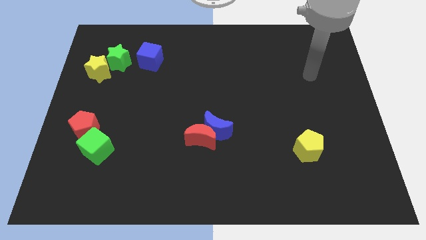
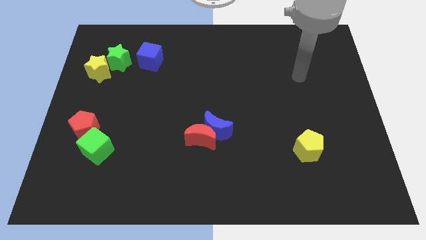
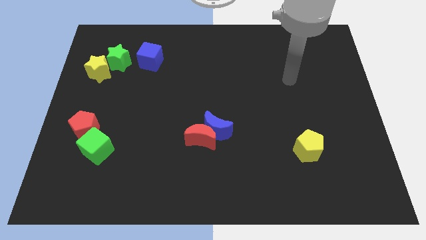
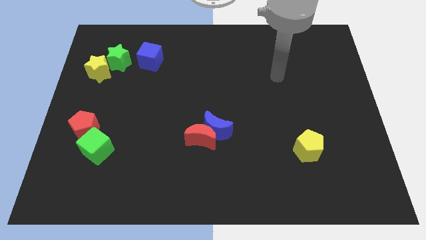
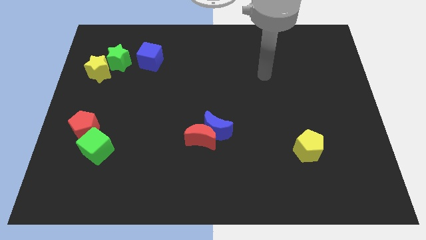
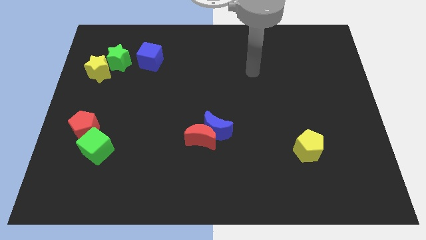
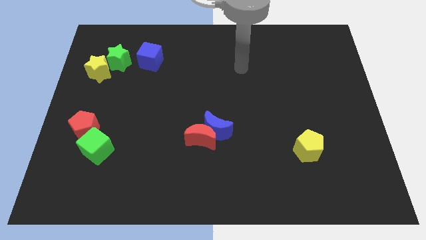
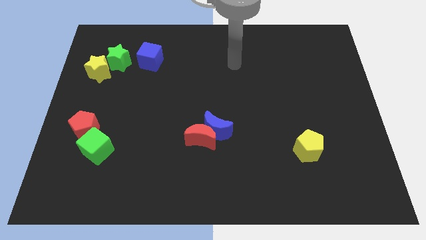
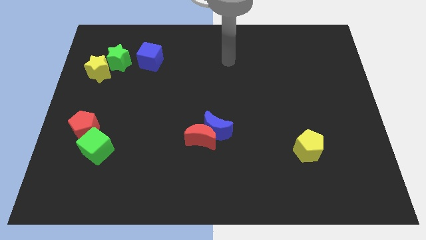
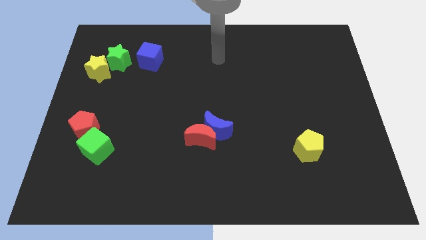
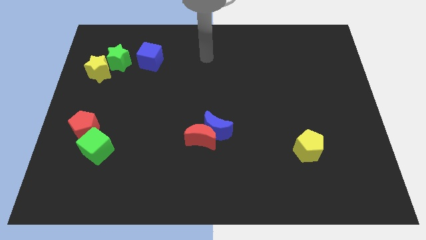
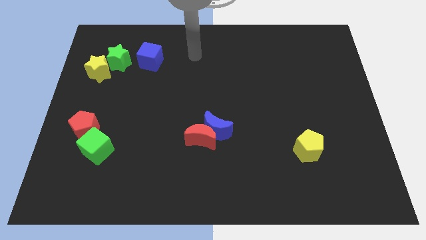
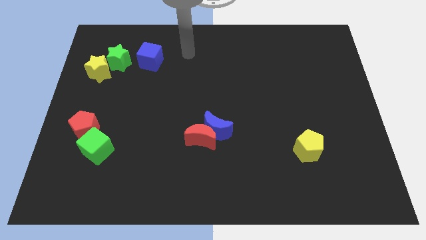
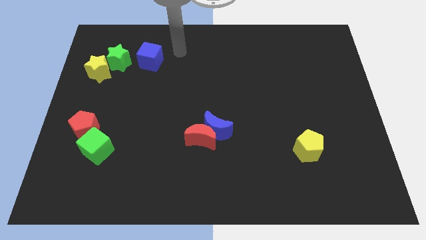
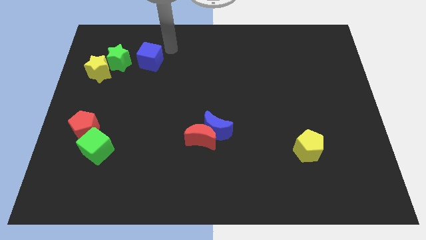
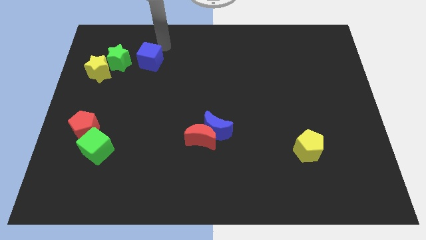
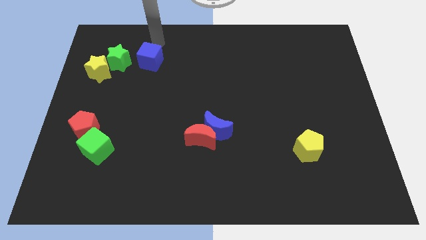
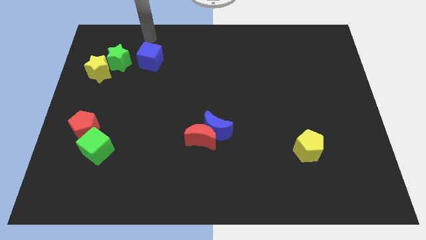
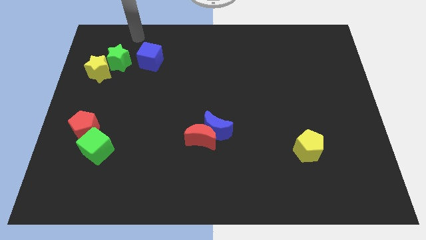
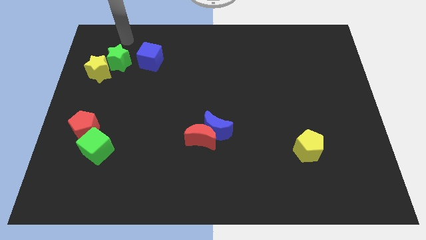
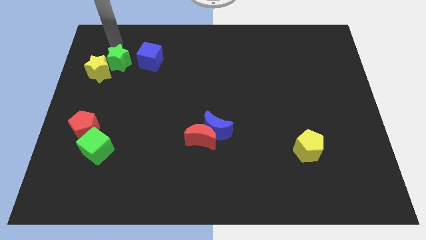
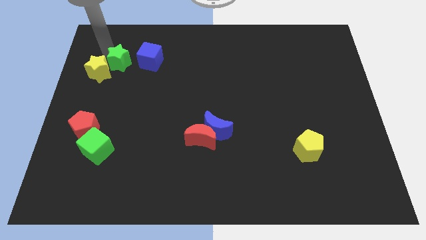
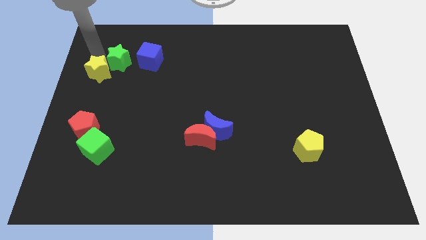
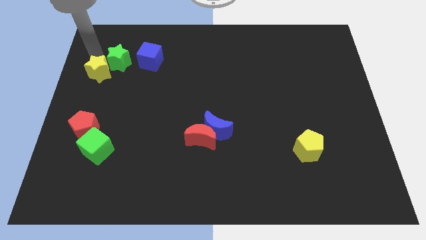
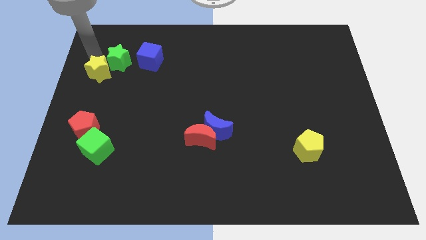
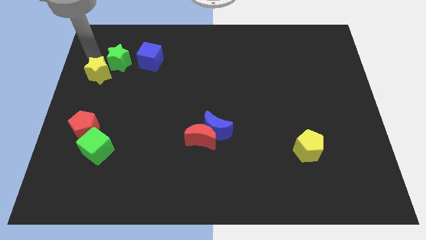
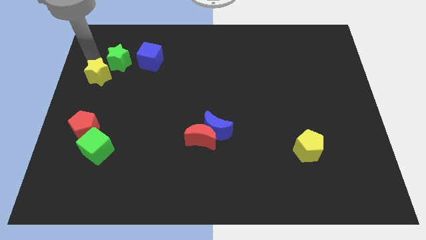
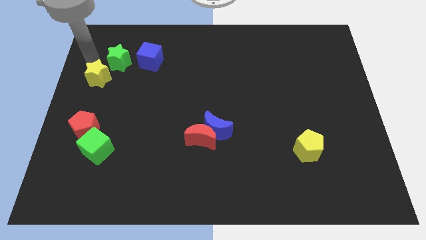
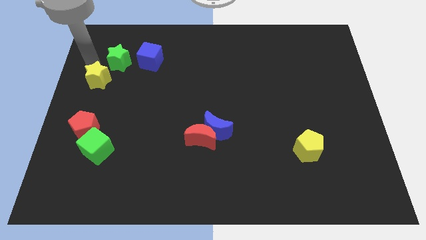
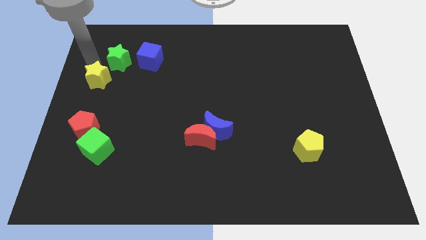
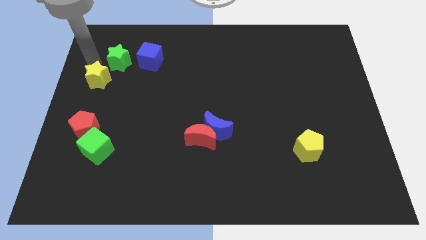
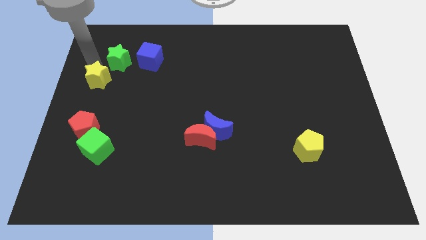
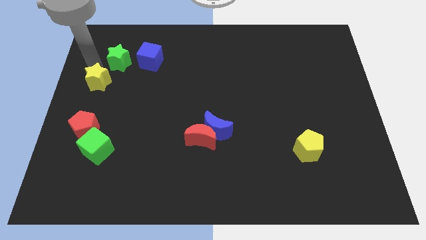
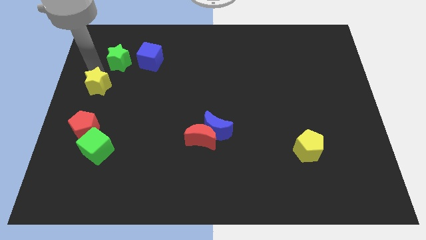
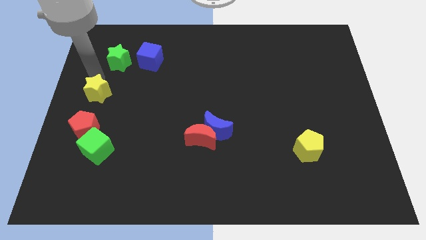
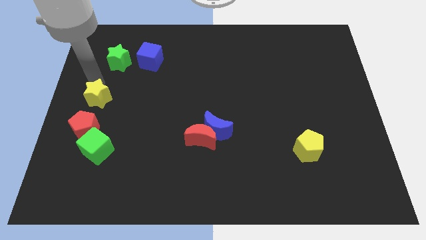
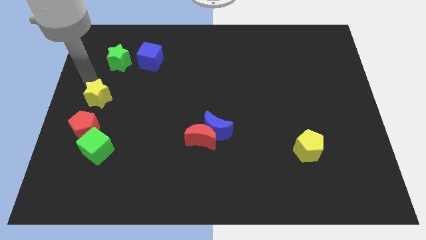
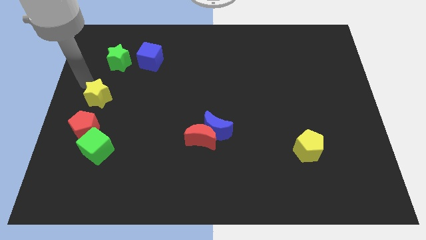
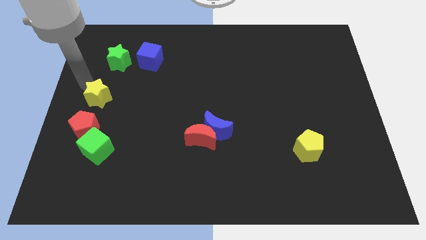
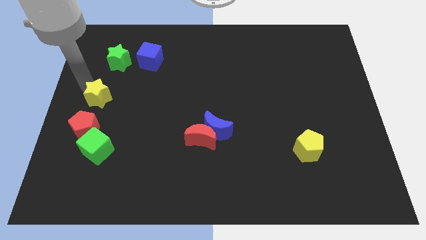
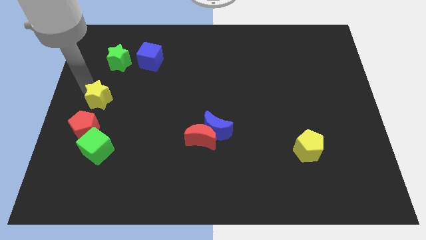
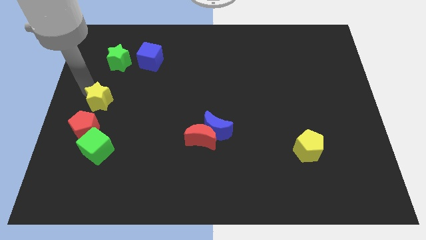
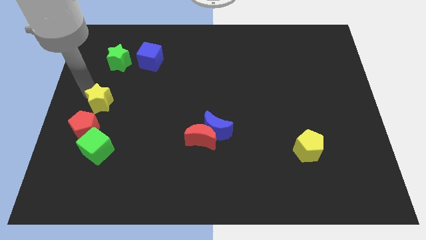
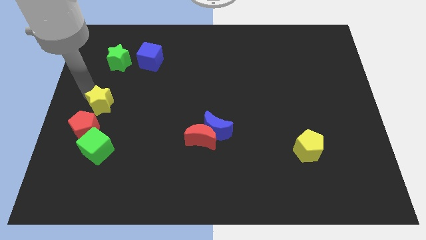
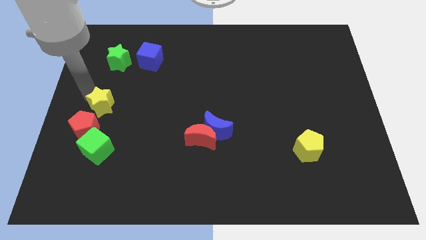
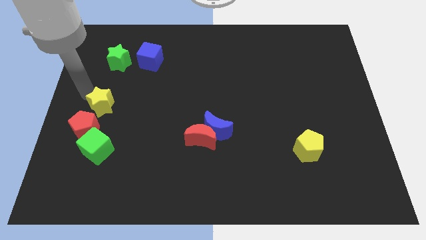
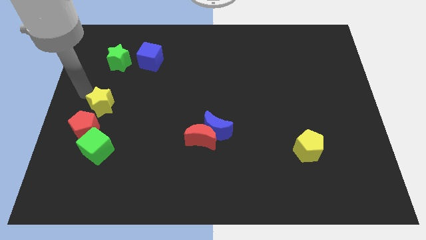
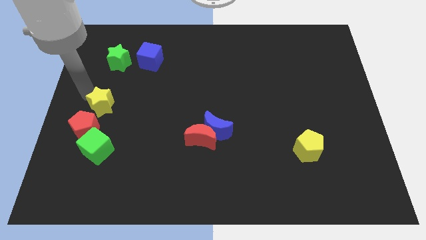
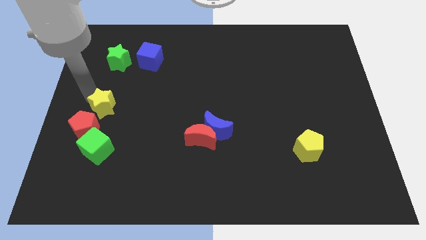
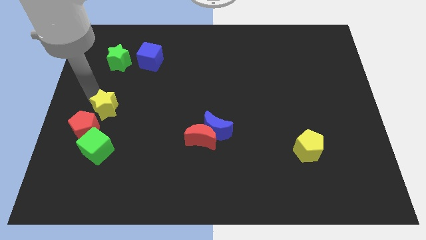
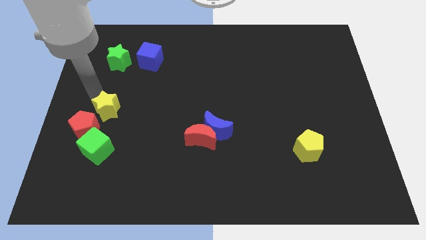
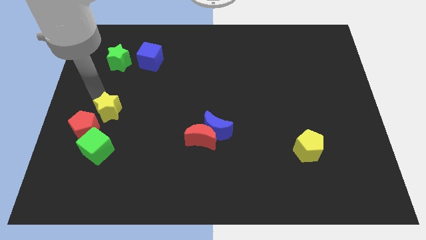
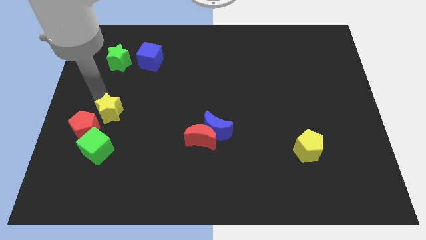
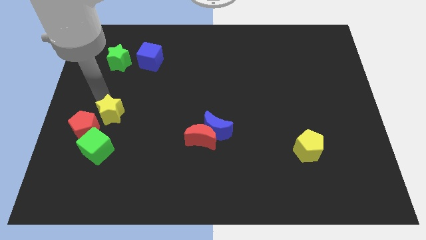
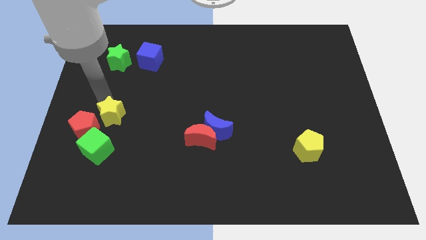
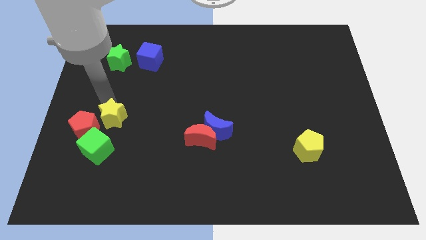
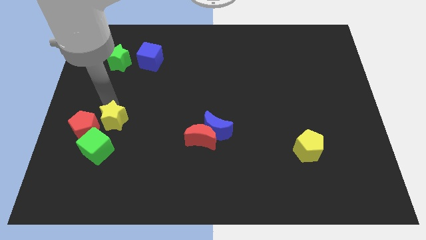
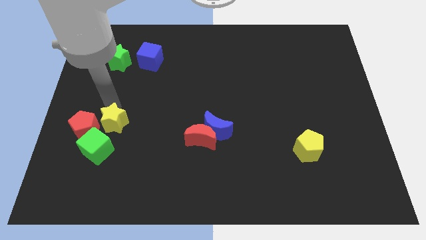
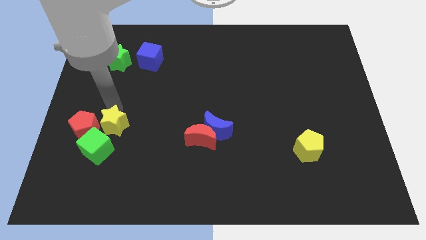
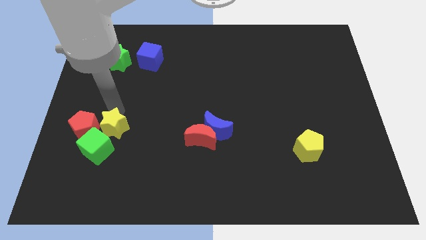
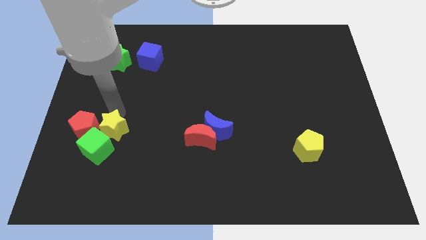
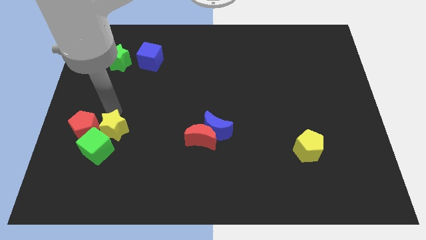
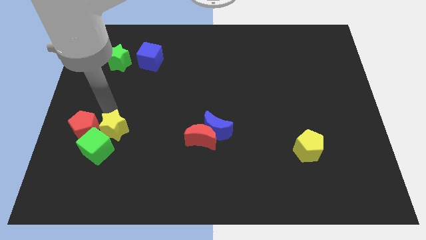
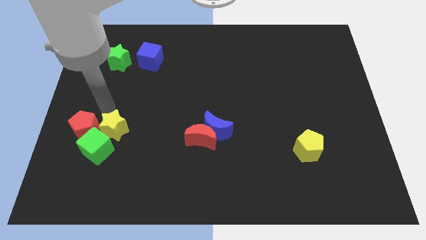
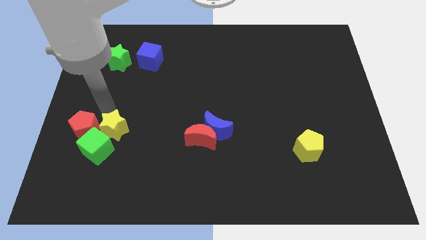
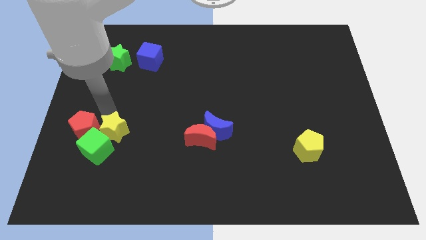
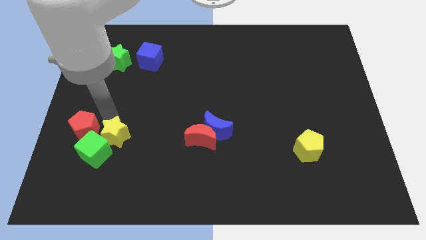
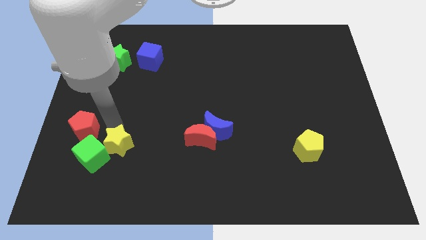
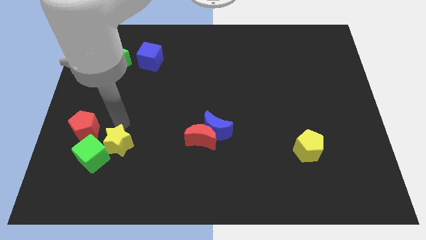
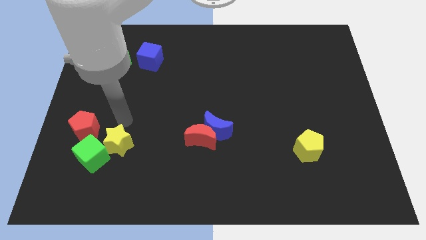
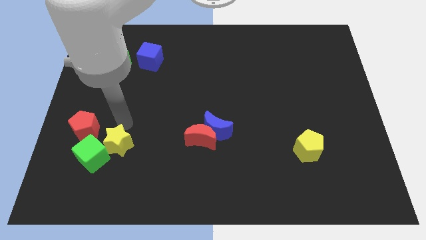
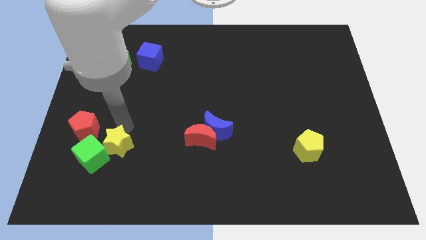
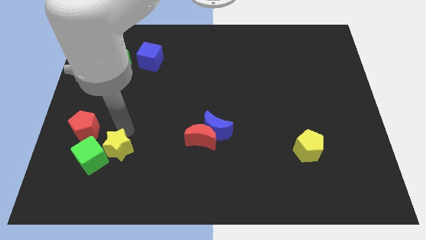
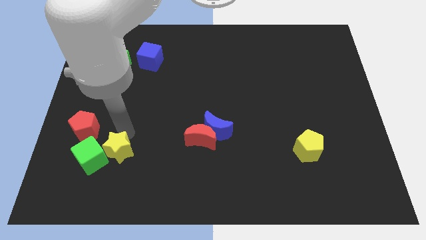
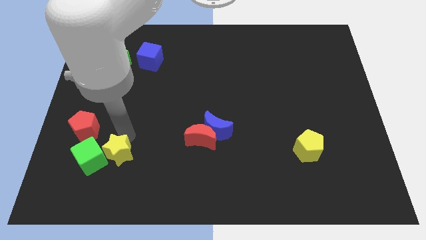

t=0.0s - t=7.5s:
push the yellow star to the bottom right of the green cube
